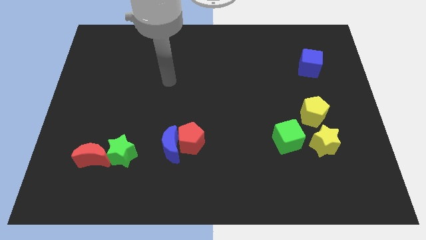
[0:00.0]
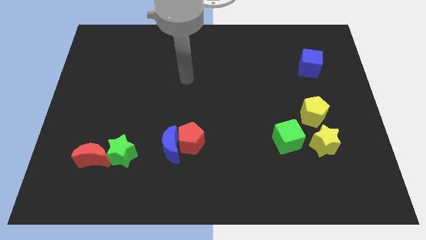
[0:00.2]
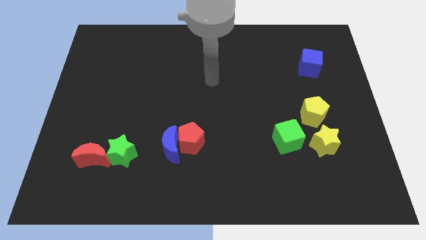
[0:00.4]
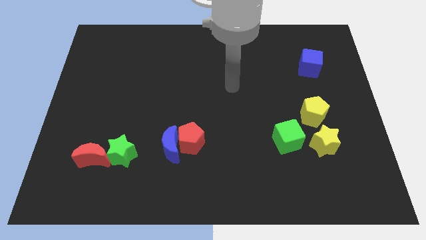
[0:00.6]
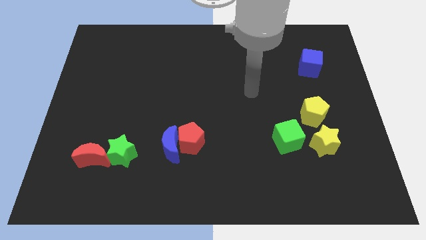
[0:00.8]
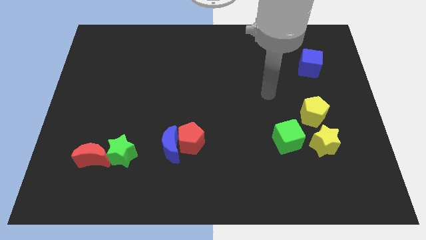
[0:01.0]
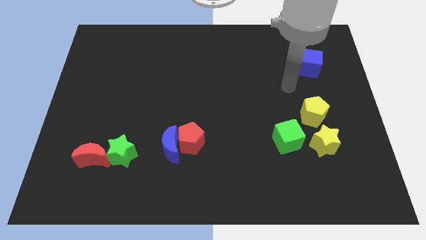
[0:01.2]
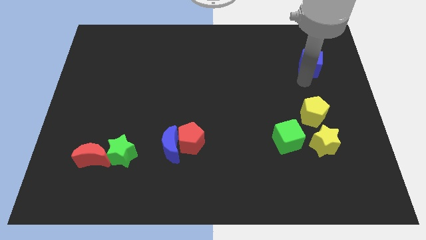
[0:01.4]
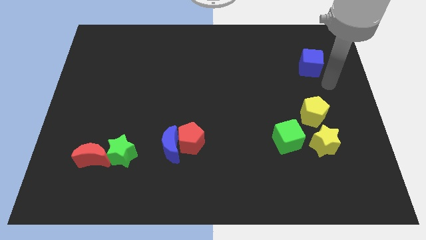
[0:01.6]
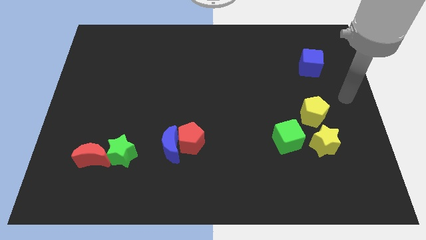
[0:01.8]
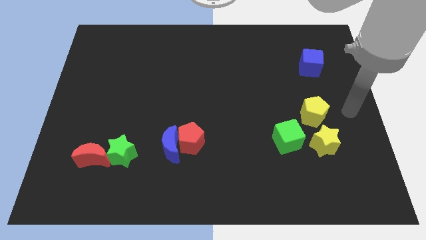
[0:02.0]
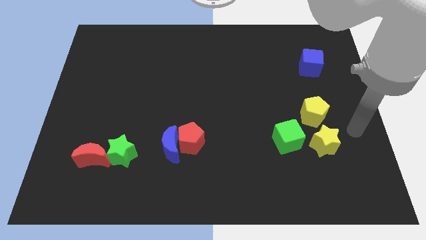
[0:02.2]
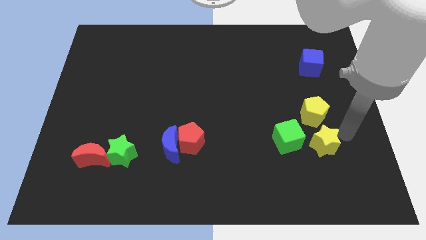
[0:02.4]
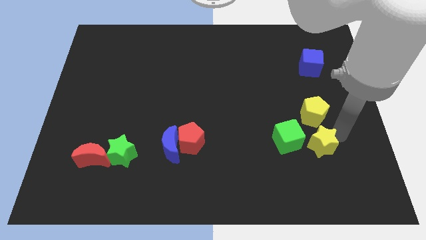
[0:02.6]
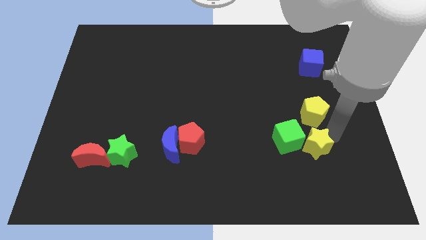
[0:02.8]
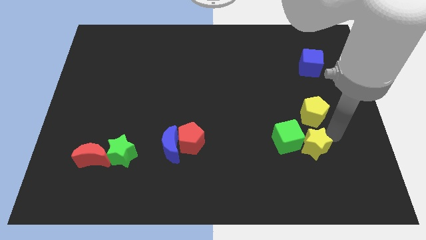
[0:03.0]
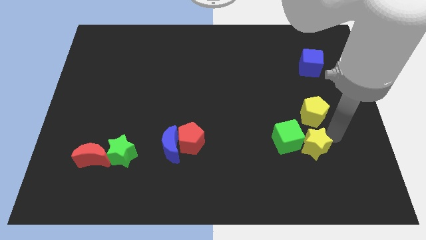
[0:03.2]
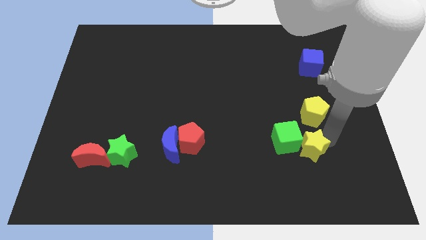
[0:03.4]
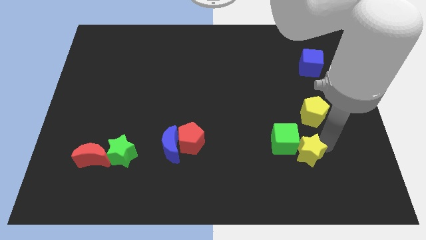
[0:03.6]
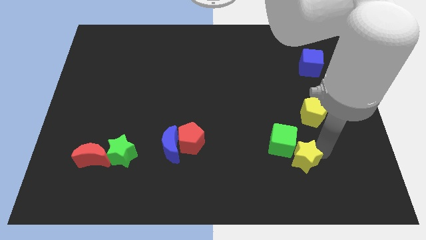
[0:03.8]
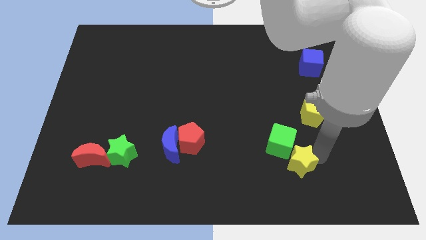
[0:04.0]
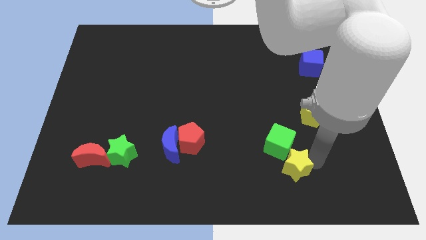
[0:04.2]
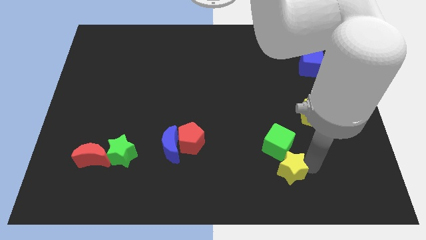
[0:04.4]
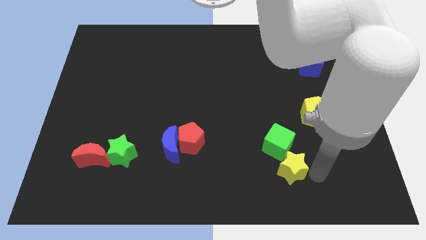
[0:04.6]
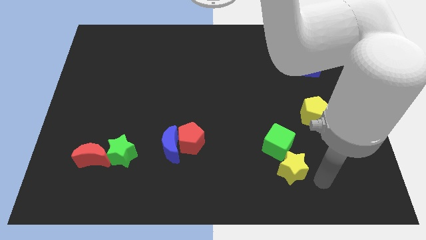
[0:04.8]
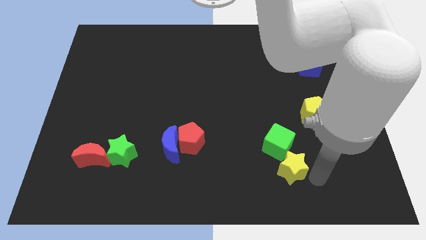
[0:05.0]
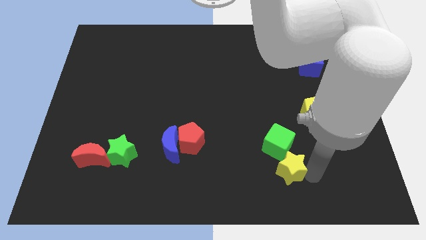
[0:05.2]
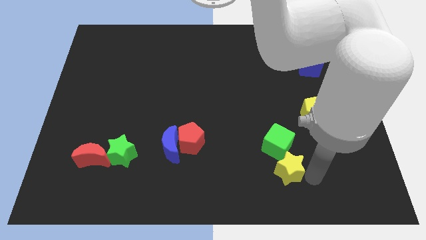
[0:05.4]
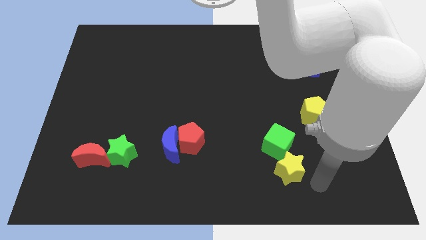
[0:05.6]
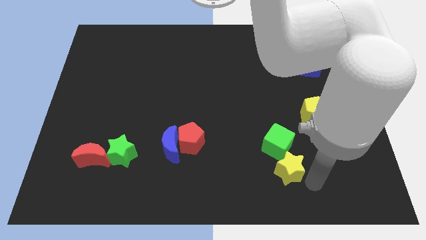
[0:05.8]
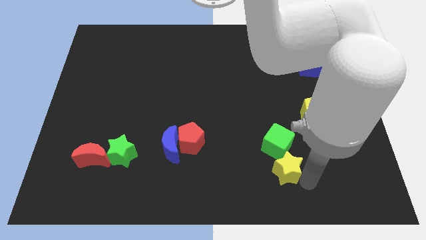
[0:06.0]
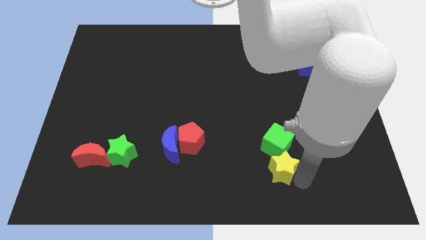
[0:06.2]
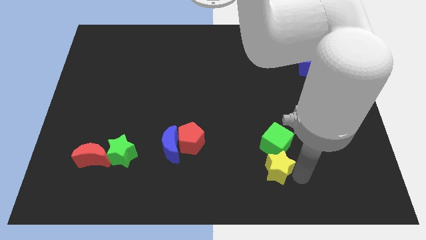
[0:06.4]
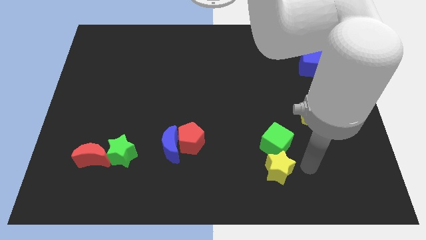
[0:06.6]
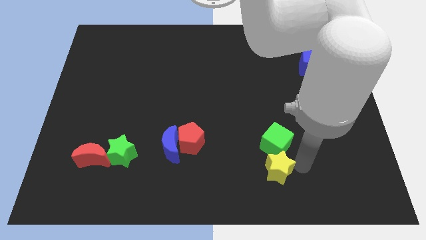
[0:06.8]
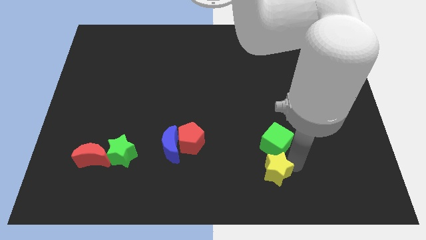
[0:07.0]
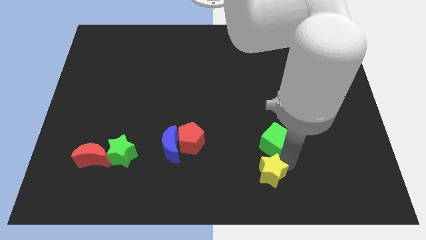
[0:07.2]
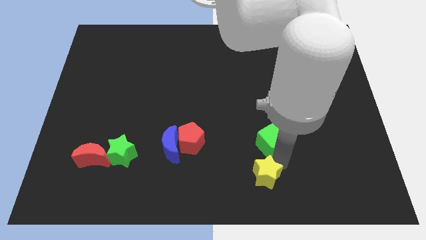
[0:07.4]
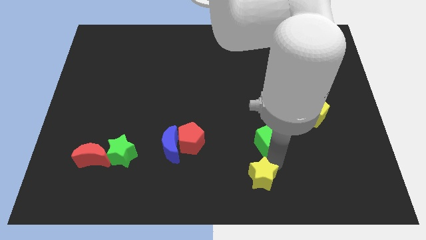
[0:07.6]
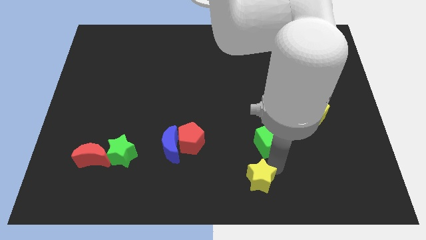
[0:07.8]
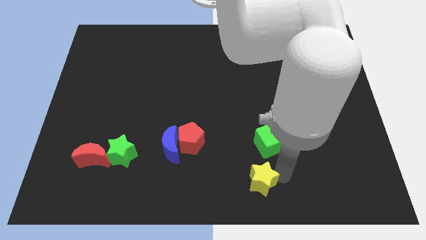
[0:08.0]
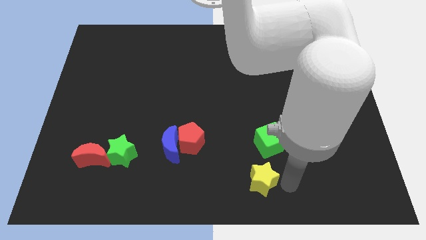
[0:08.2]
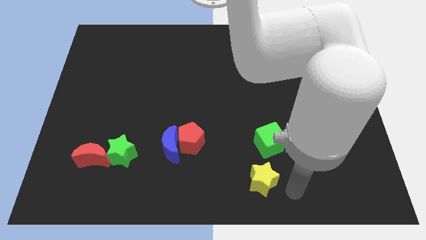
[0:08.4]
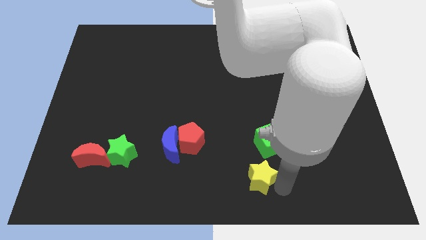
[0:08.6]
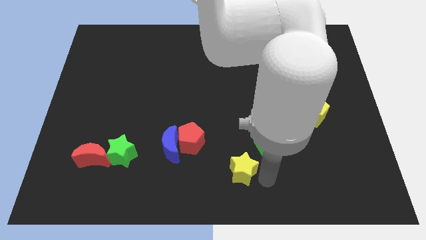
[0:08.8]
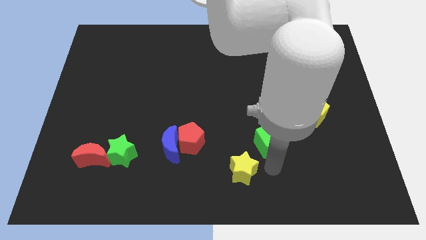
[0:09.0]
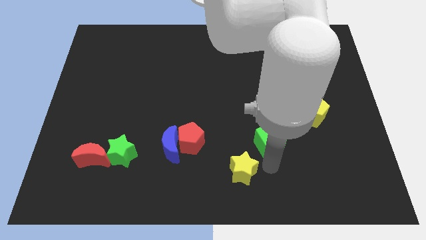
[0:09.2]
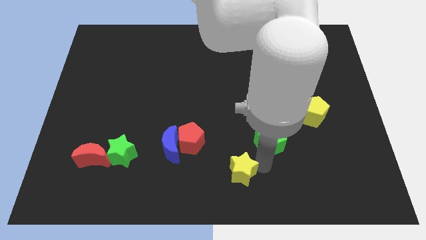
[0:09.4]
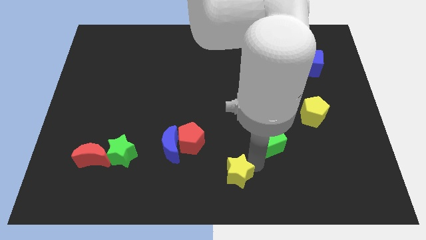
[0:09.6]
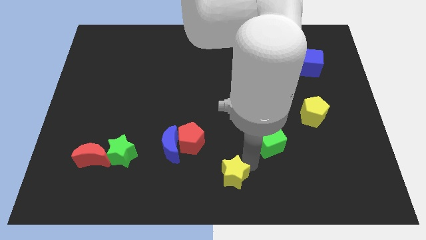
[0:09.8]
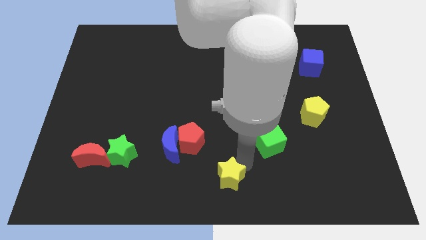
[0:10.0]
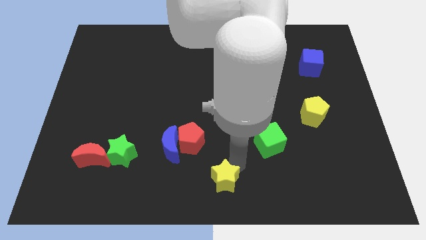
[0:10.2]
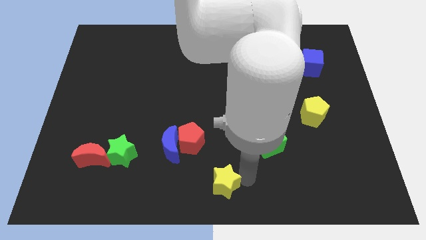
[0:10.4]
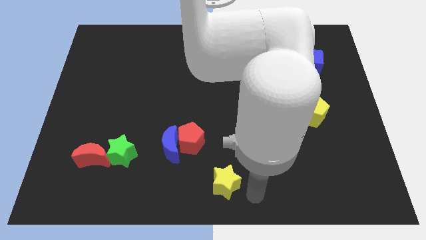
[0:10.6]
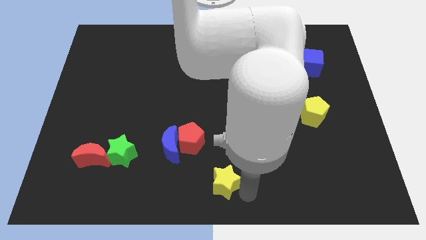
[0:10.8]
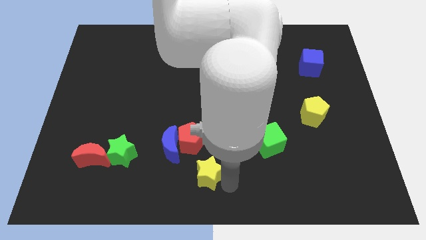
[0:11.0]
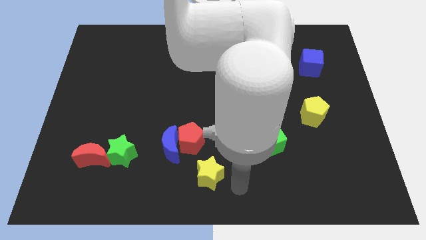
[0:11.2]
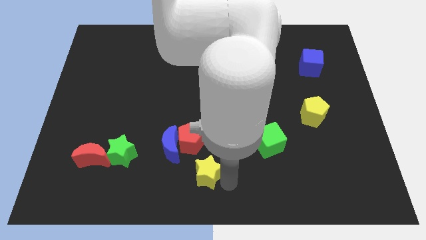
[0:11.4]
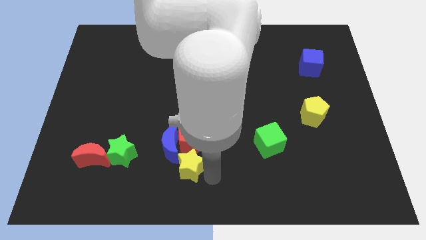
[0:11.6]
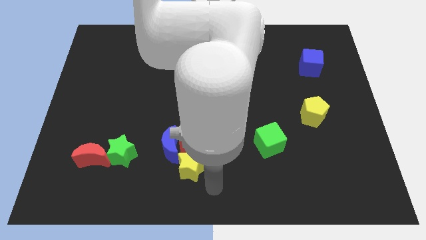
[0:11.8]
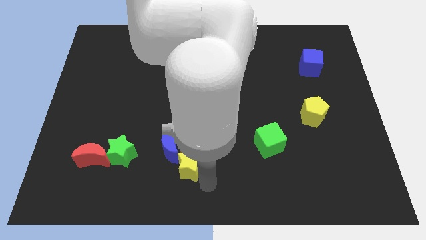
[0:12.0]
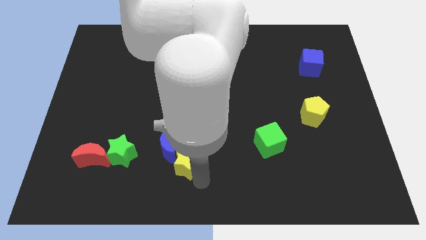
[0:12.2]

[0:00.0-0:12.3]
put the yellow star next to the blue moon
